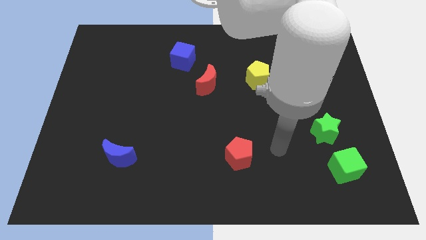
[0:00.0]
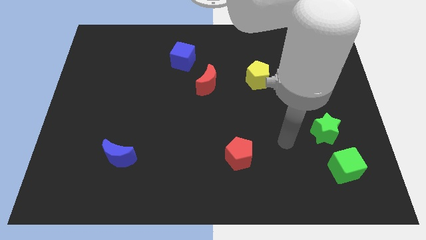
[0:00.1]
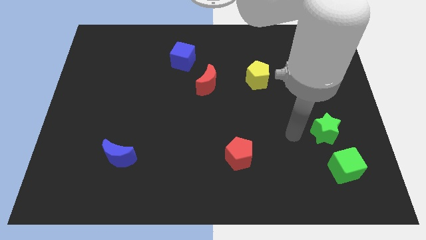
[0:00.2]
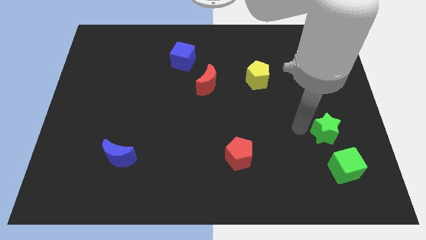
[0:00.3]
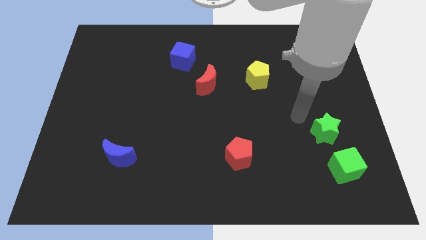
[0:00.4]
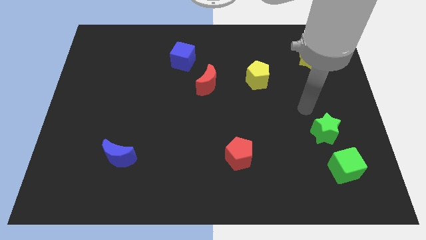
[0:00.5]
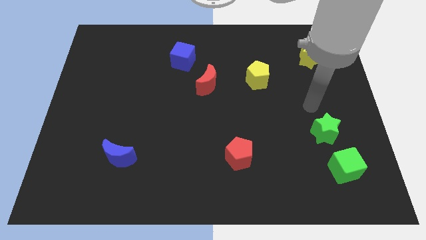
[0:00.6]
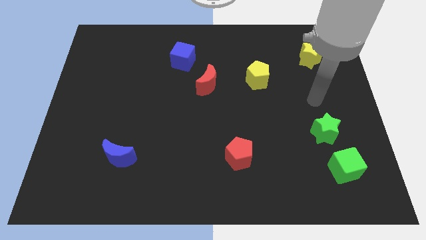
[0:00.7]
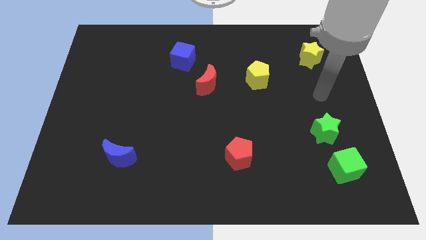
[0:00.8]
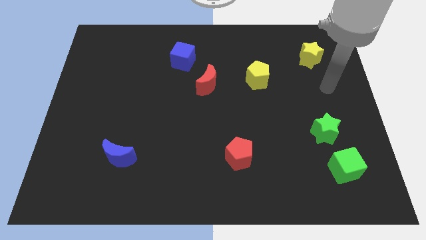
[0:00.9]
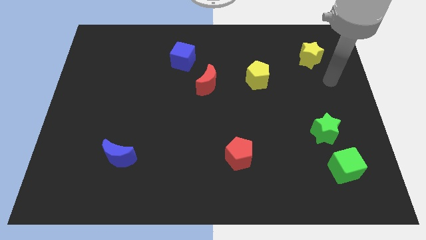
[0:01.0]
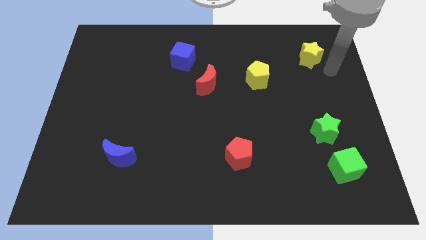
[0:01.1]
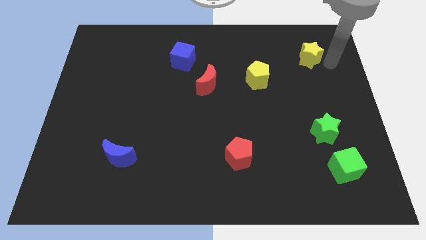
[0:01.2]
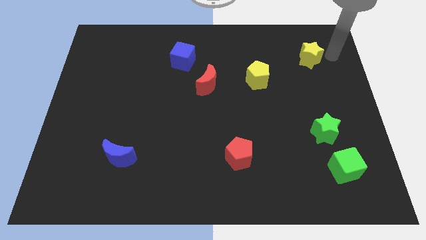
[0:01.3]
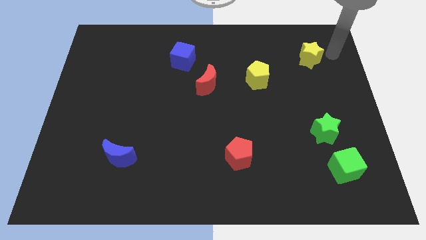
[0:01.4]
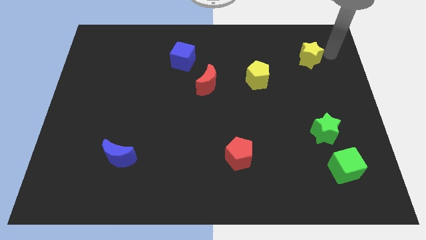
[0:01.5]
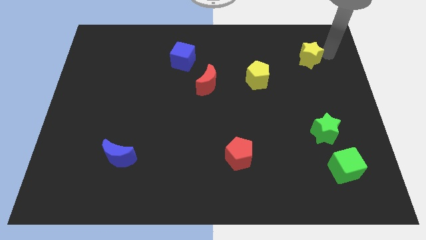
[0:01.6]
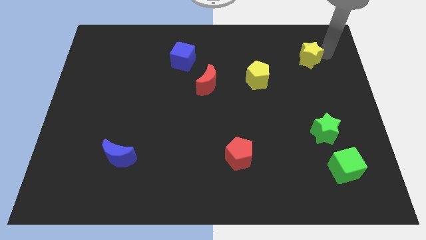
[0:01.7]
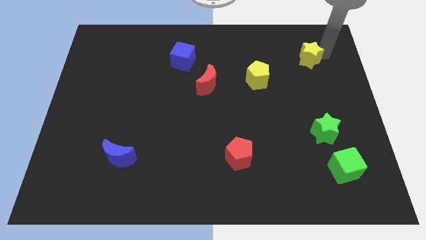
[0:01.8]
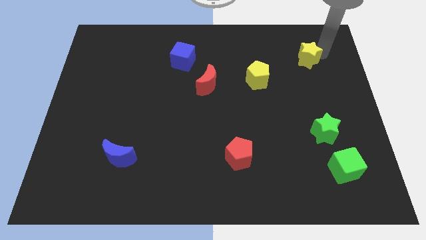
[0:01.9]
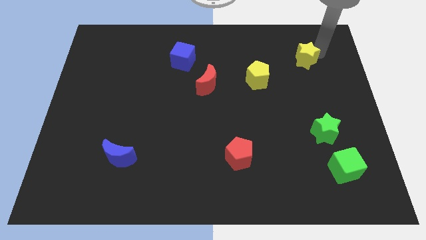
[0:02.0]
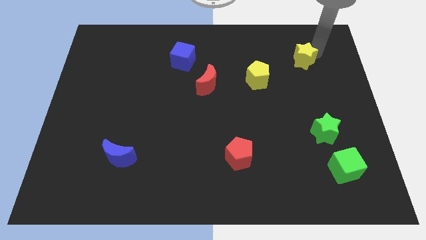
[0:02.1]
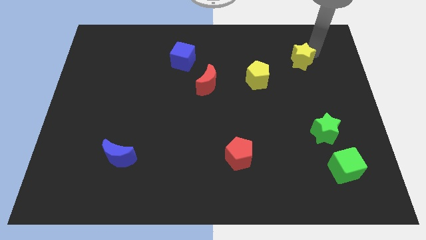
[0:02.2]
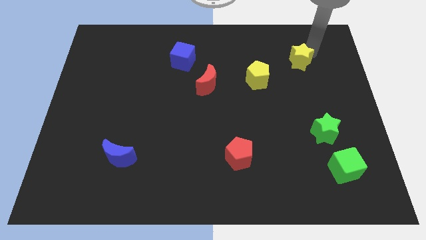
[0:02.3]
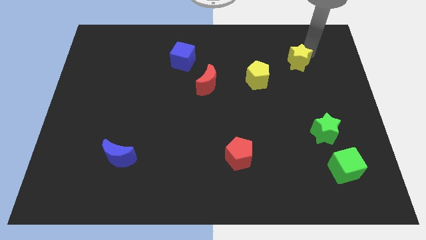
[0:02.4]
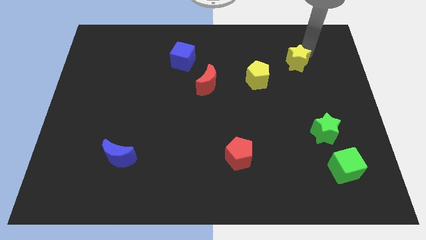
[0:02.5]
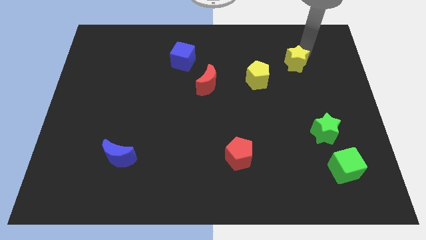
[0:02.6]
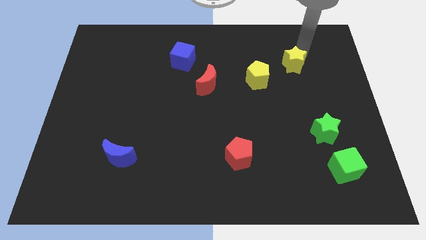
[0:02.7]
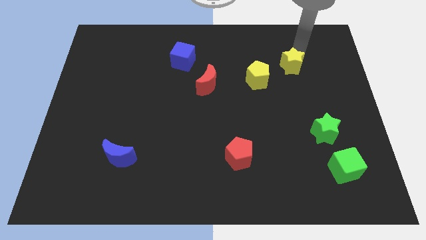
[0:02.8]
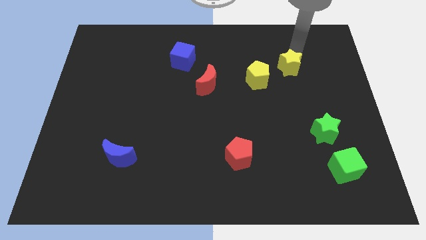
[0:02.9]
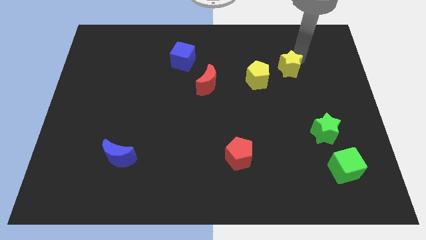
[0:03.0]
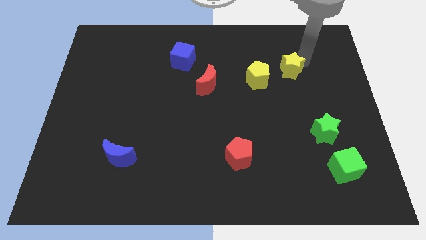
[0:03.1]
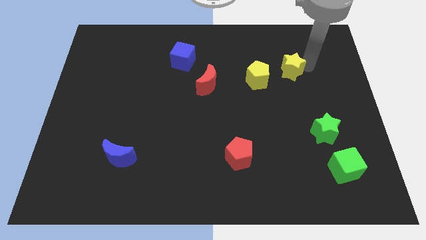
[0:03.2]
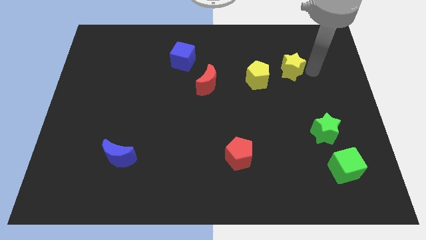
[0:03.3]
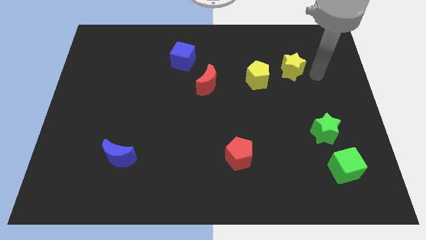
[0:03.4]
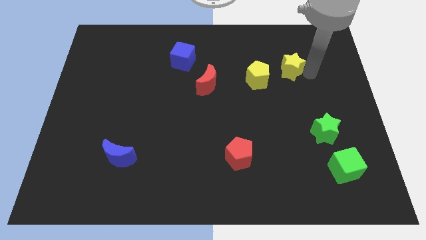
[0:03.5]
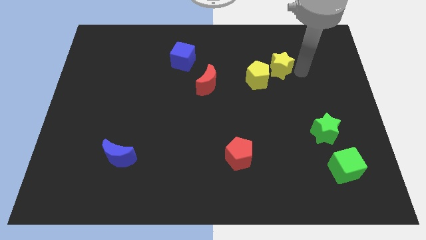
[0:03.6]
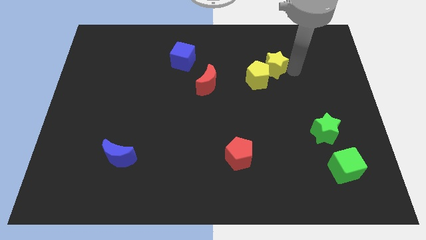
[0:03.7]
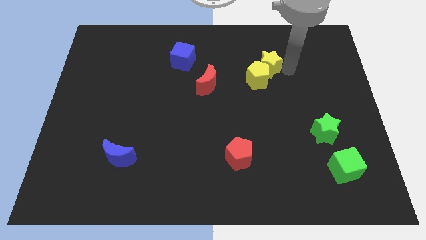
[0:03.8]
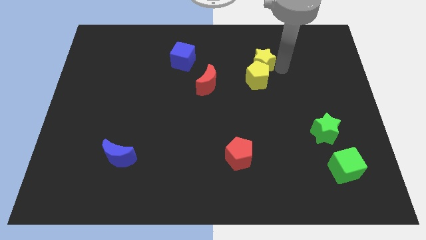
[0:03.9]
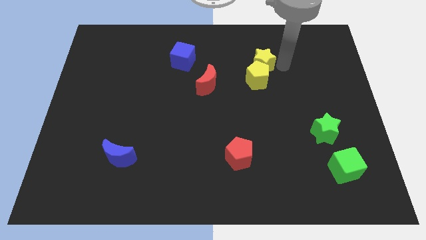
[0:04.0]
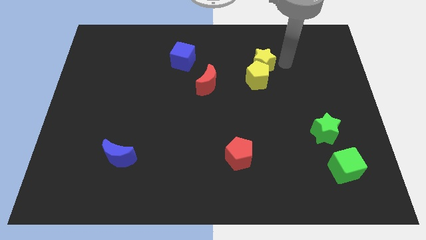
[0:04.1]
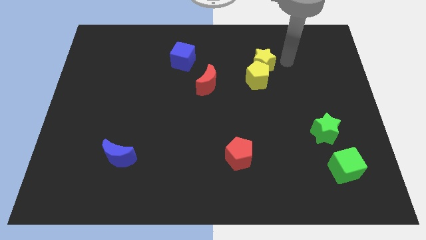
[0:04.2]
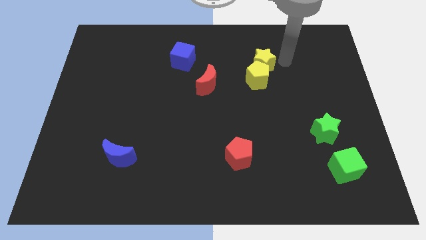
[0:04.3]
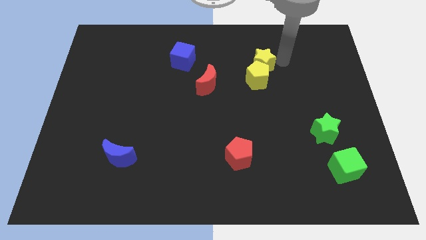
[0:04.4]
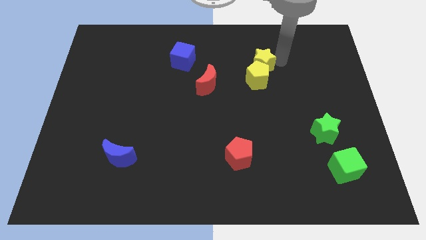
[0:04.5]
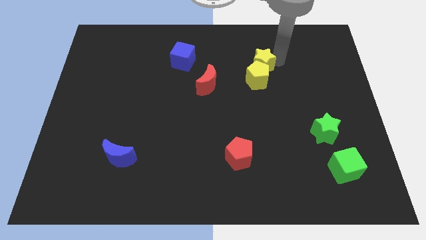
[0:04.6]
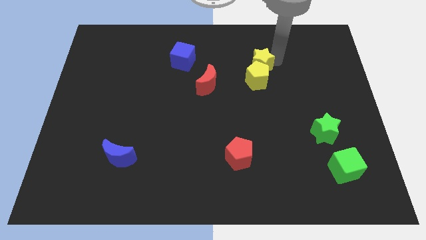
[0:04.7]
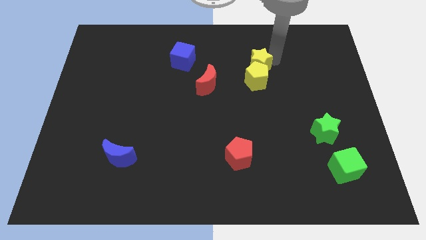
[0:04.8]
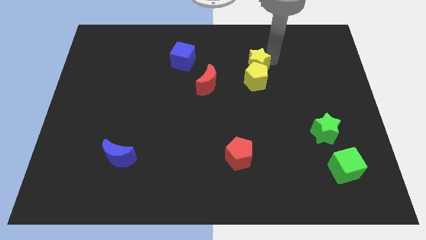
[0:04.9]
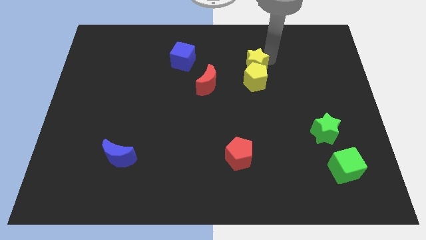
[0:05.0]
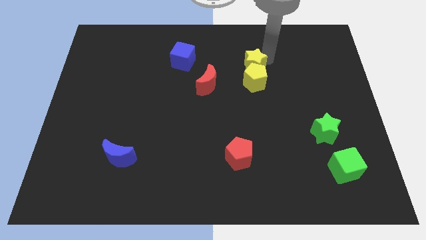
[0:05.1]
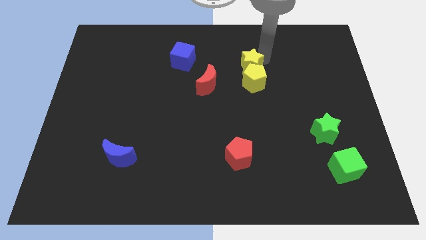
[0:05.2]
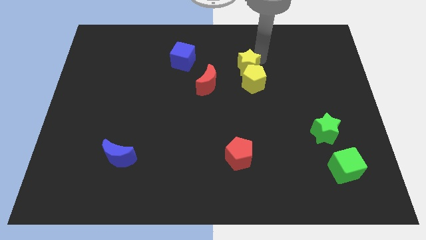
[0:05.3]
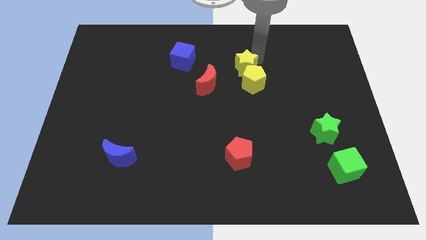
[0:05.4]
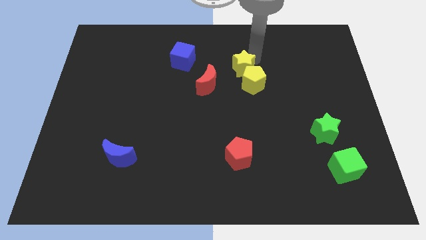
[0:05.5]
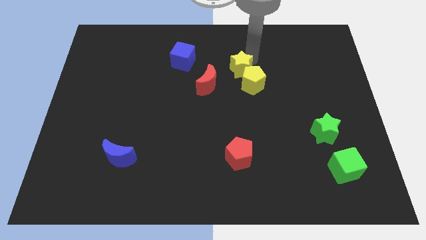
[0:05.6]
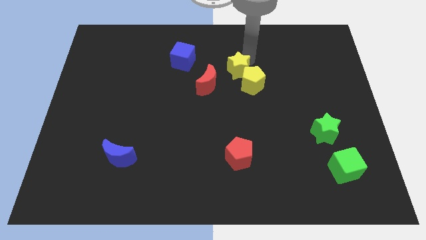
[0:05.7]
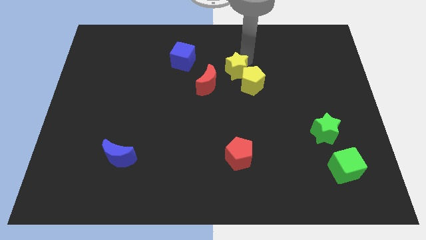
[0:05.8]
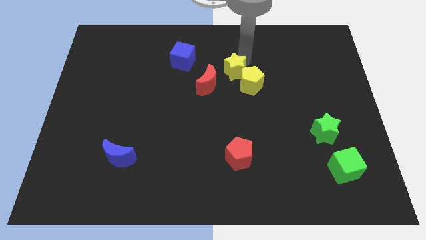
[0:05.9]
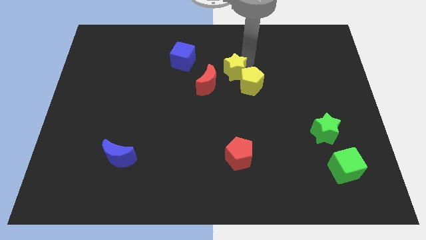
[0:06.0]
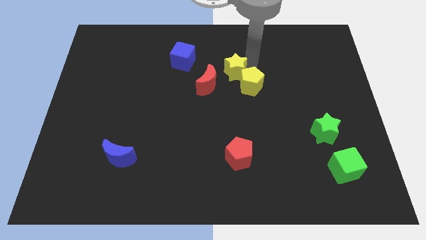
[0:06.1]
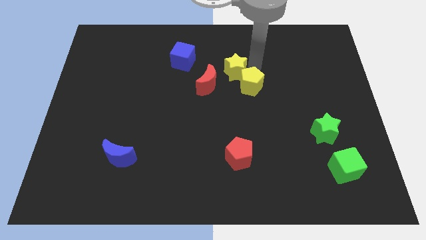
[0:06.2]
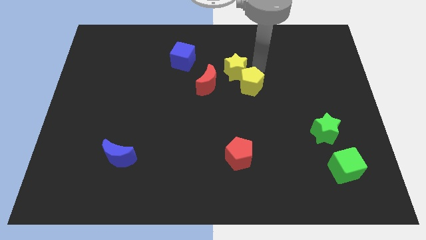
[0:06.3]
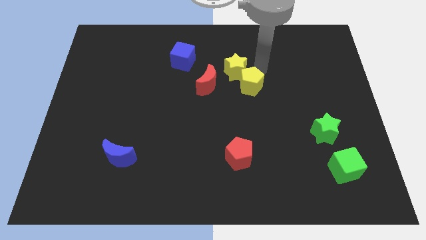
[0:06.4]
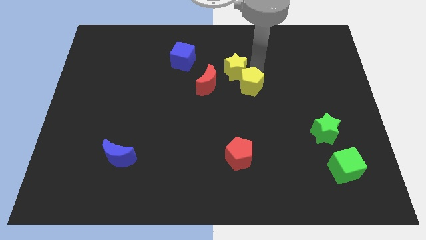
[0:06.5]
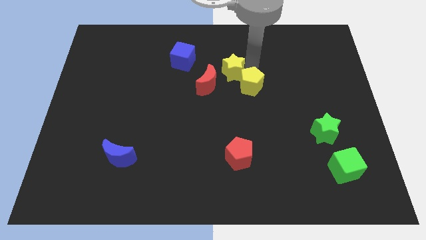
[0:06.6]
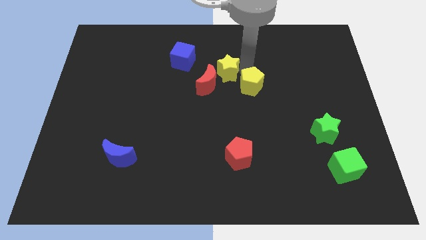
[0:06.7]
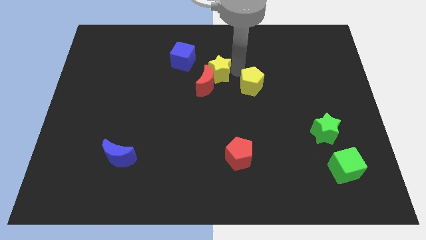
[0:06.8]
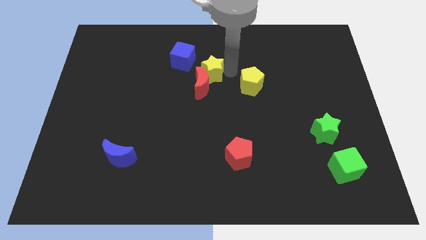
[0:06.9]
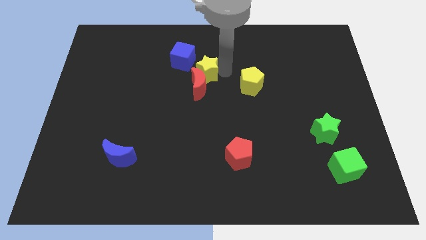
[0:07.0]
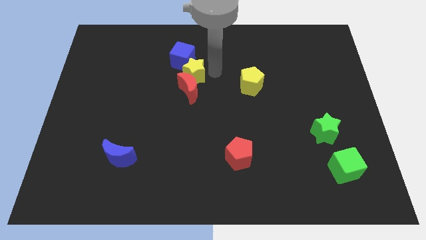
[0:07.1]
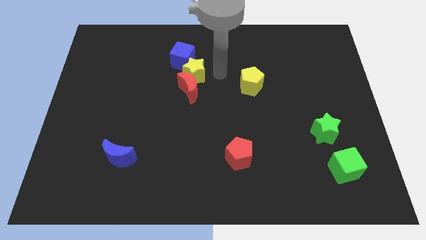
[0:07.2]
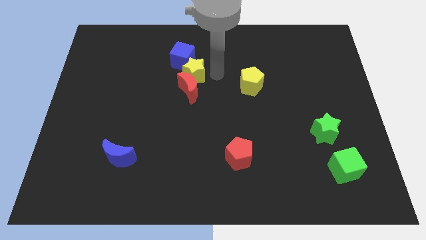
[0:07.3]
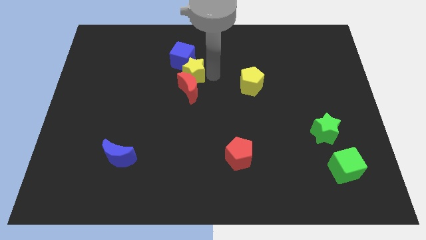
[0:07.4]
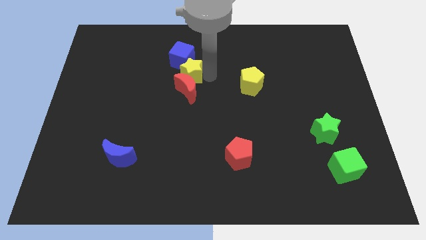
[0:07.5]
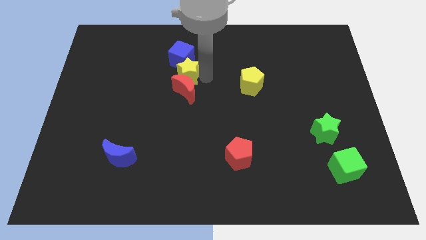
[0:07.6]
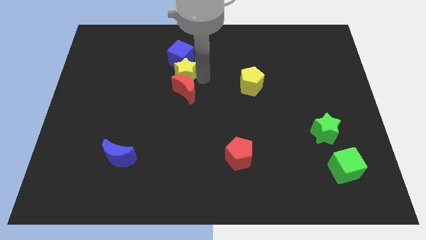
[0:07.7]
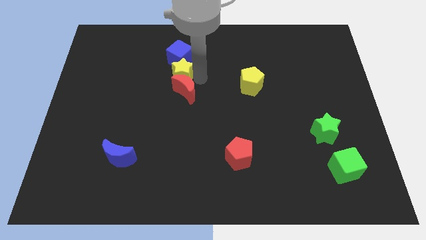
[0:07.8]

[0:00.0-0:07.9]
put the yellow star to the bottom left side of the blue cube
